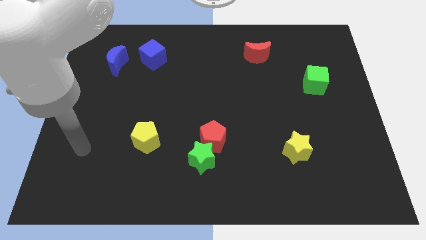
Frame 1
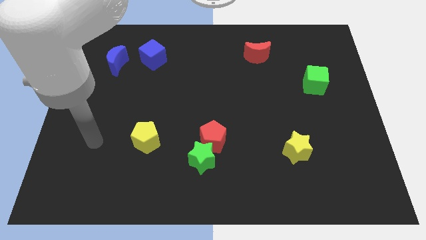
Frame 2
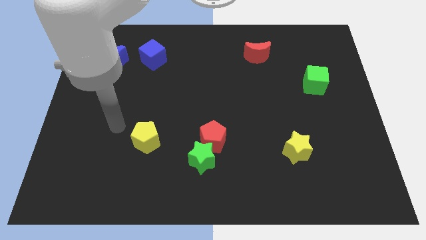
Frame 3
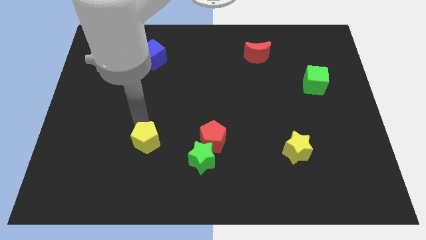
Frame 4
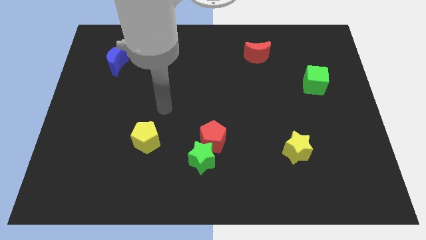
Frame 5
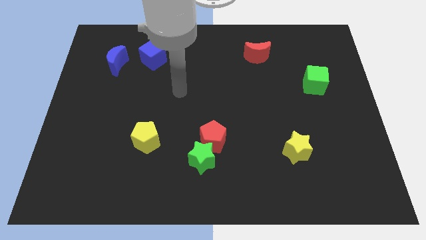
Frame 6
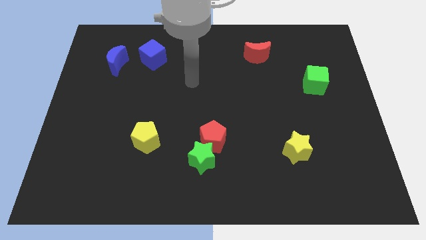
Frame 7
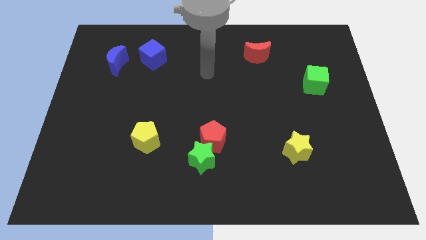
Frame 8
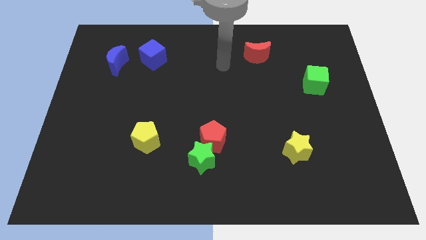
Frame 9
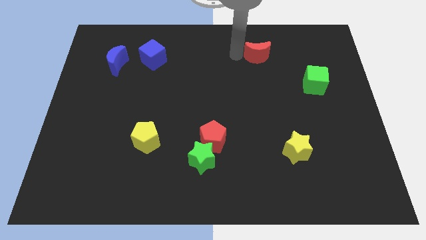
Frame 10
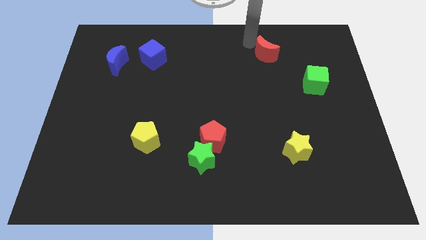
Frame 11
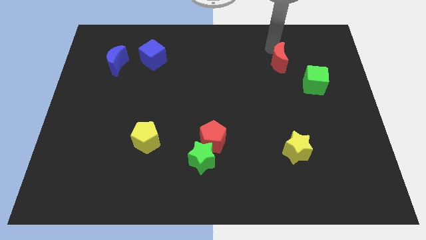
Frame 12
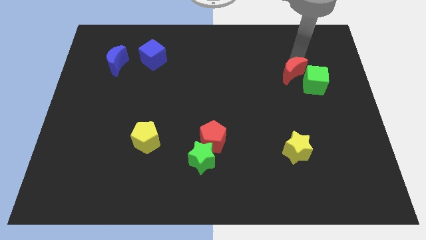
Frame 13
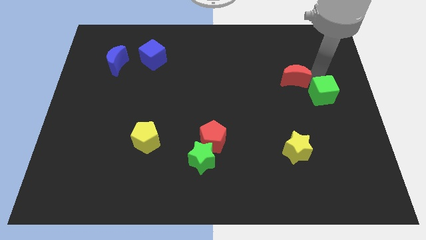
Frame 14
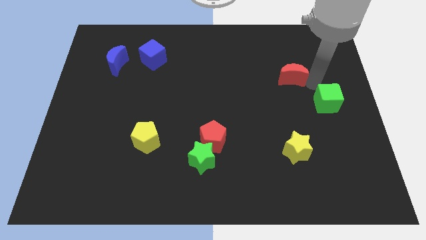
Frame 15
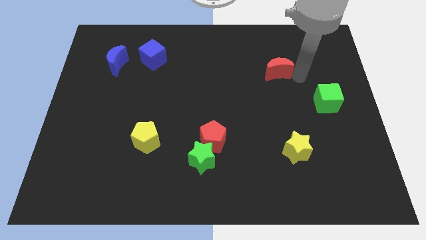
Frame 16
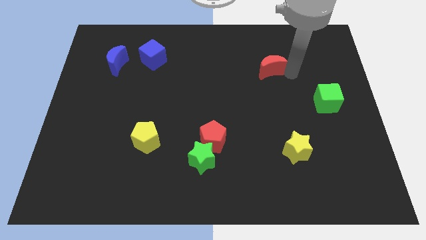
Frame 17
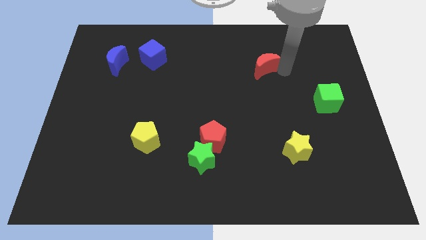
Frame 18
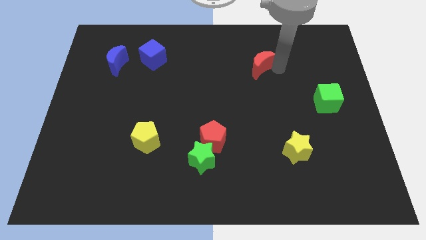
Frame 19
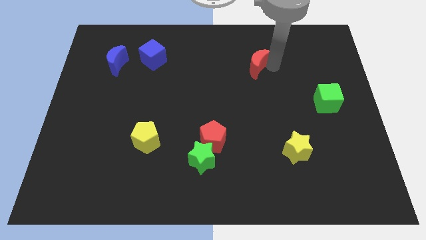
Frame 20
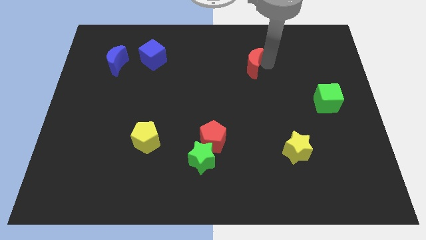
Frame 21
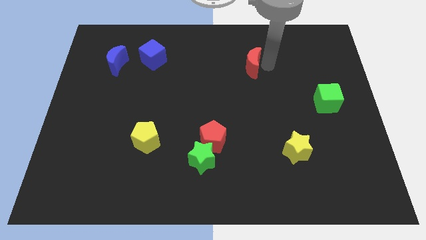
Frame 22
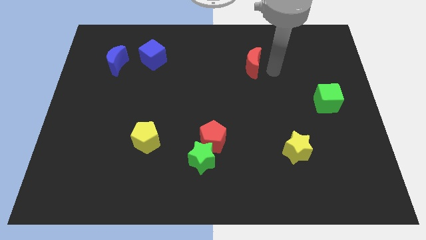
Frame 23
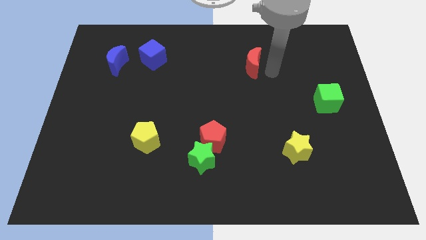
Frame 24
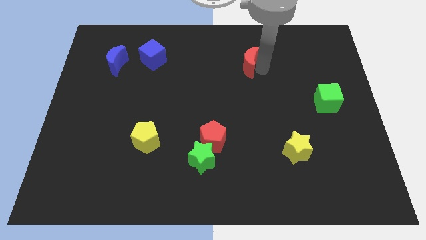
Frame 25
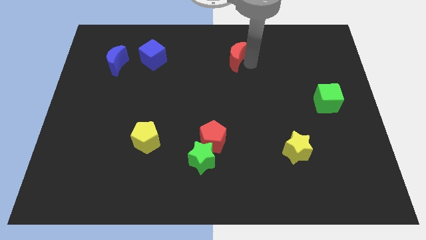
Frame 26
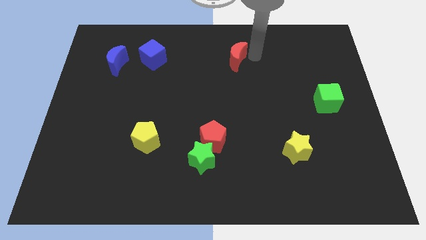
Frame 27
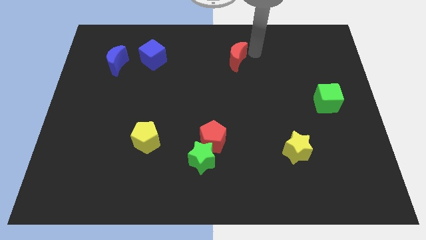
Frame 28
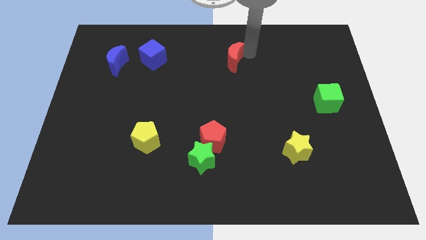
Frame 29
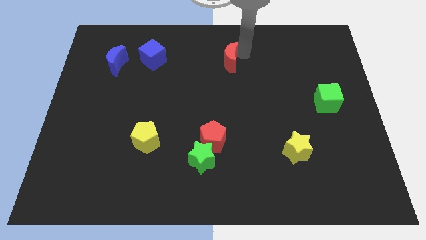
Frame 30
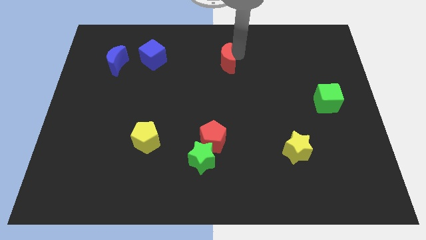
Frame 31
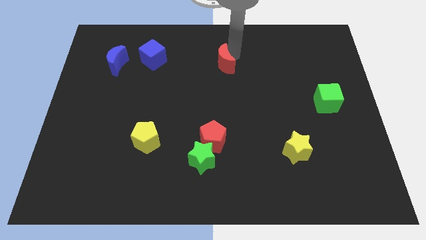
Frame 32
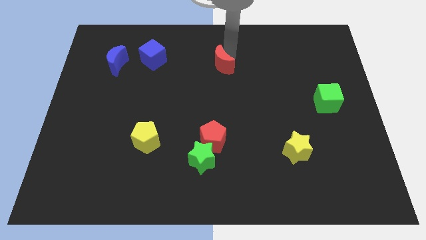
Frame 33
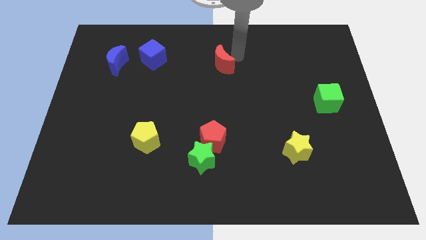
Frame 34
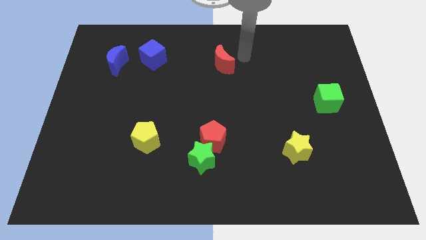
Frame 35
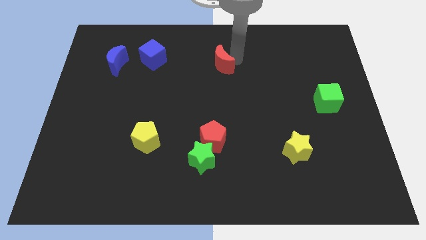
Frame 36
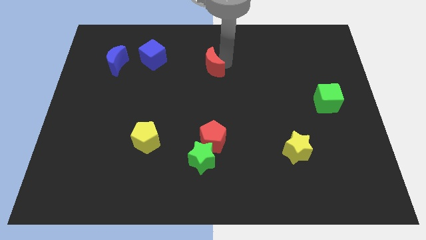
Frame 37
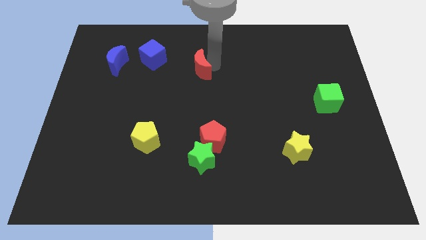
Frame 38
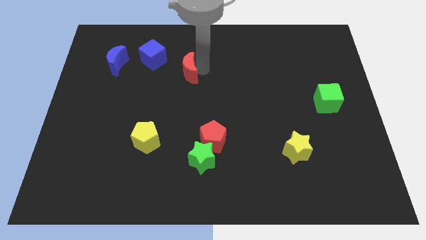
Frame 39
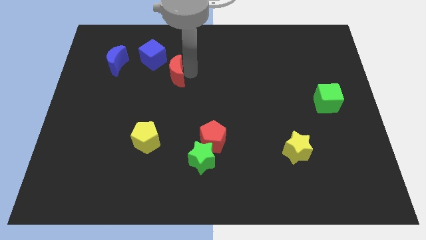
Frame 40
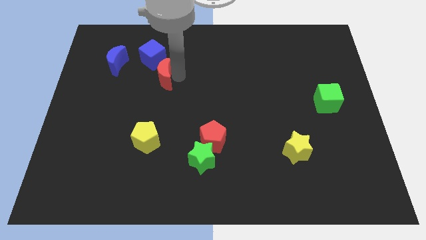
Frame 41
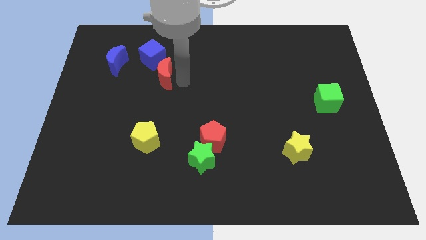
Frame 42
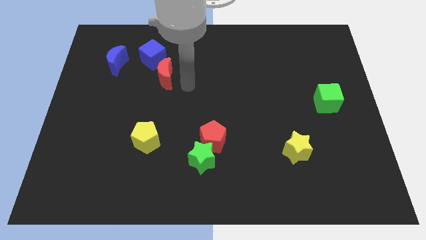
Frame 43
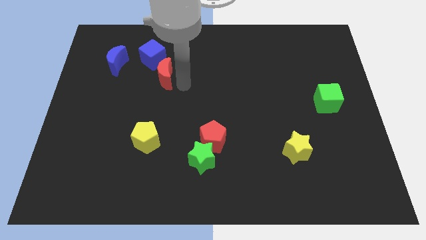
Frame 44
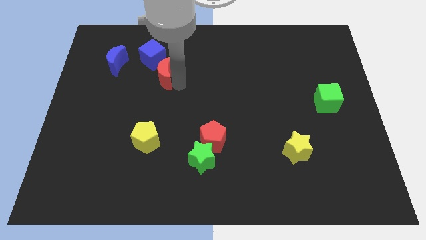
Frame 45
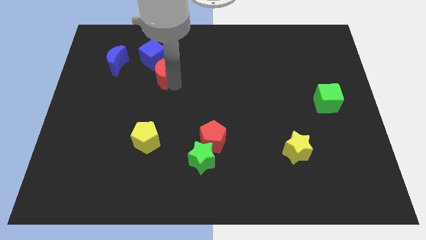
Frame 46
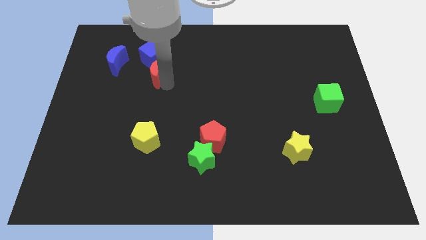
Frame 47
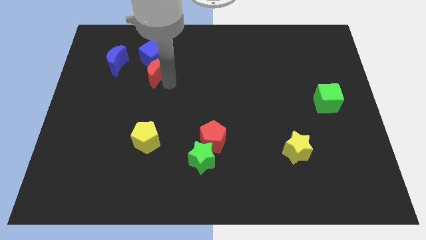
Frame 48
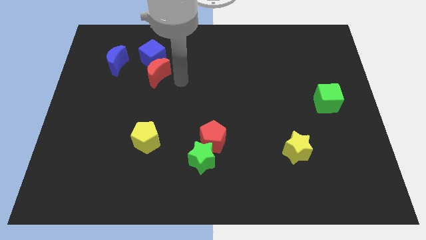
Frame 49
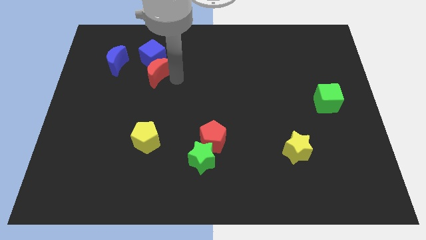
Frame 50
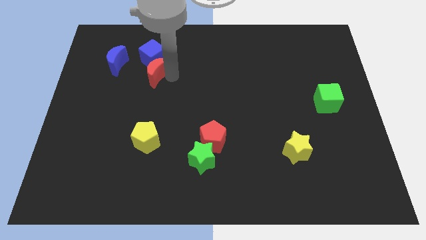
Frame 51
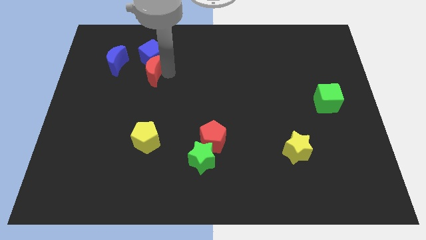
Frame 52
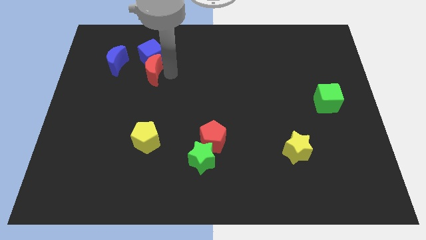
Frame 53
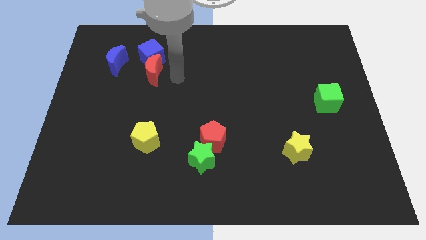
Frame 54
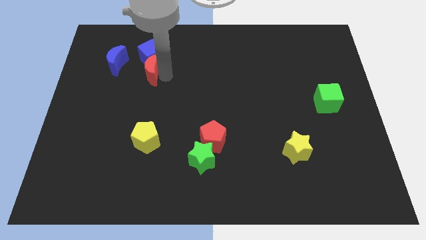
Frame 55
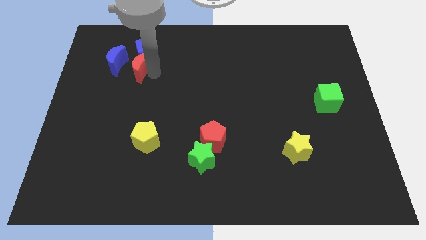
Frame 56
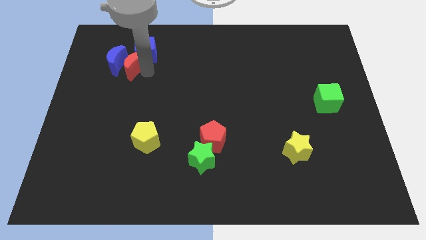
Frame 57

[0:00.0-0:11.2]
push the red moon towards the blue moon

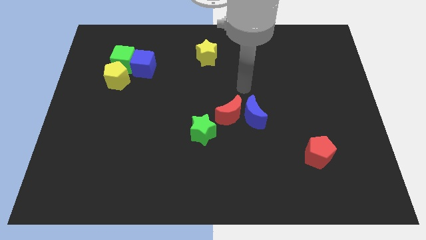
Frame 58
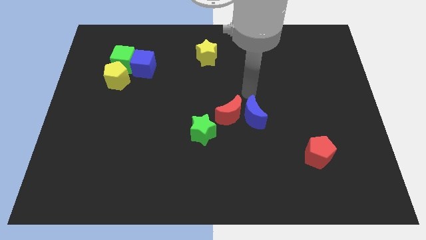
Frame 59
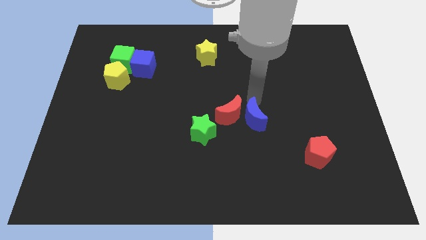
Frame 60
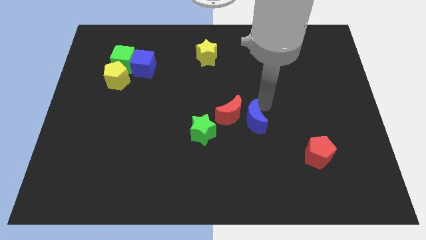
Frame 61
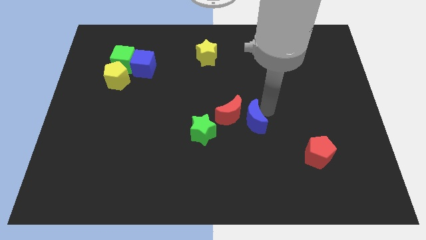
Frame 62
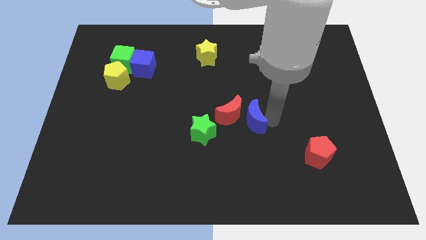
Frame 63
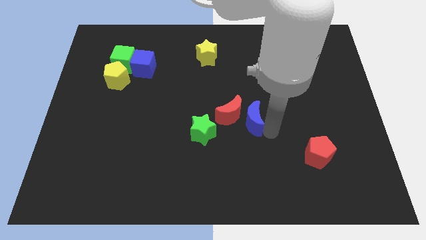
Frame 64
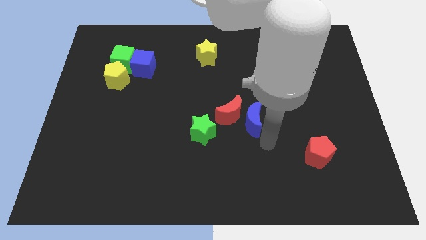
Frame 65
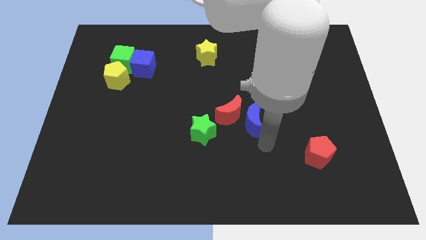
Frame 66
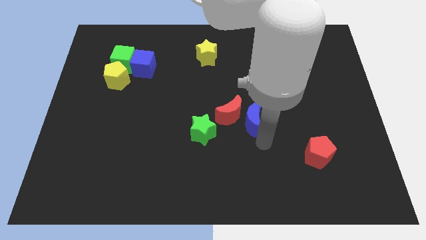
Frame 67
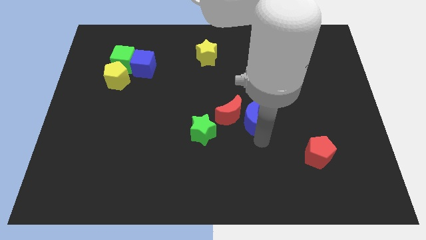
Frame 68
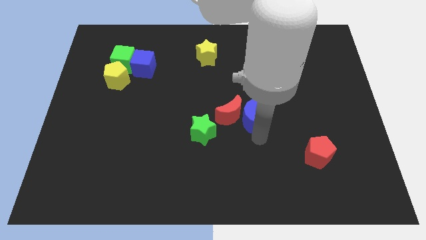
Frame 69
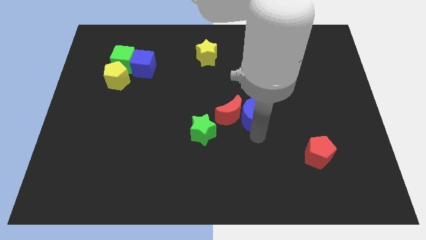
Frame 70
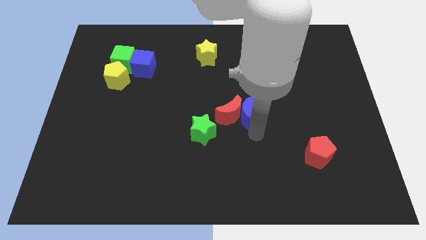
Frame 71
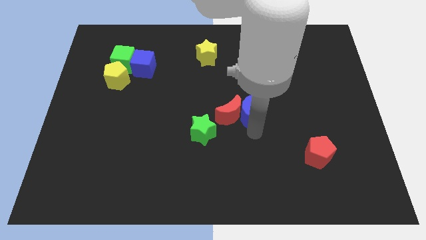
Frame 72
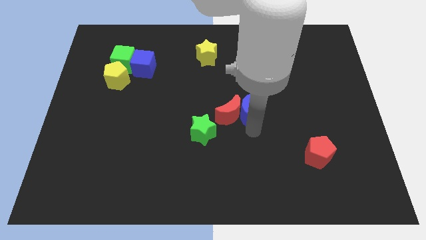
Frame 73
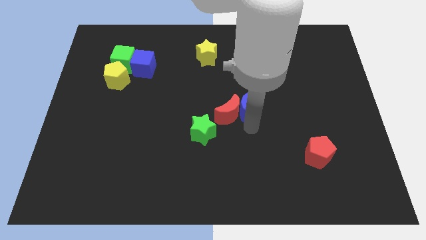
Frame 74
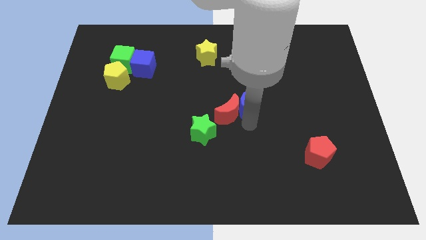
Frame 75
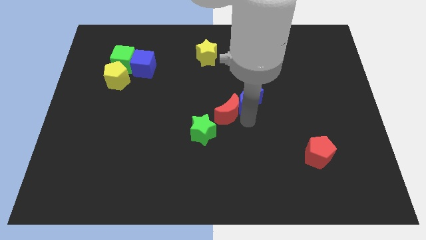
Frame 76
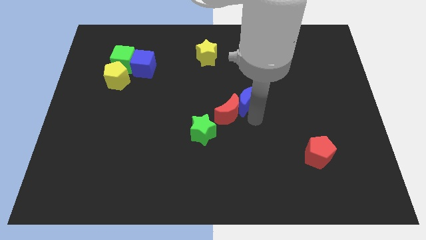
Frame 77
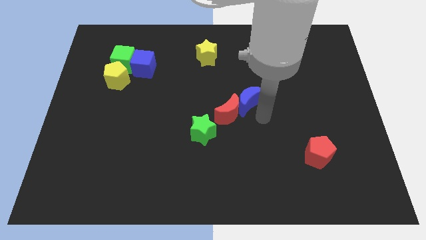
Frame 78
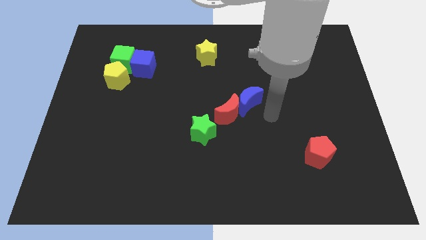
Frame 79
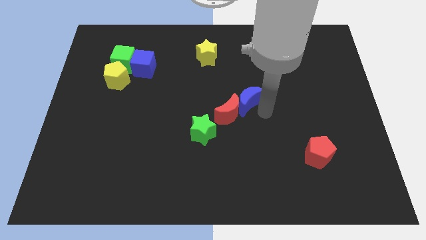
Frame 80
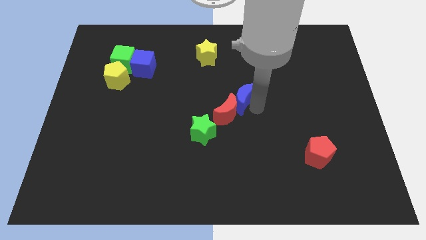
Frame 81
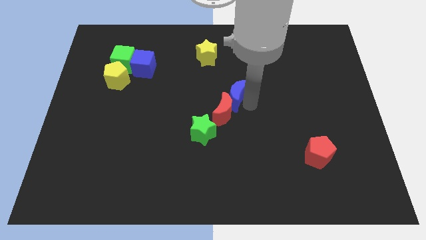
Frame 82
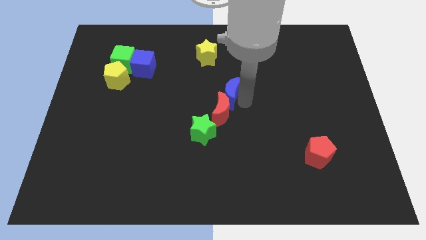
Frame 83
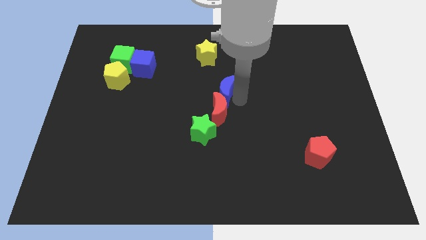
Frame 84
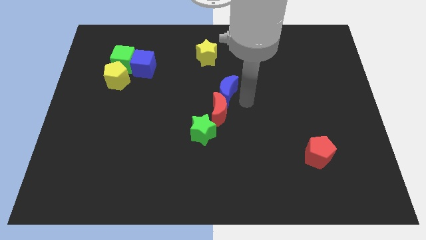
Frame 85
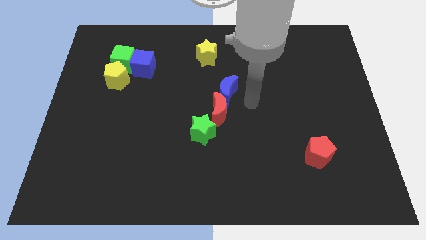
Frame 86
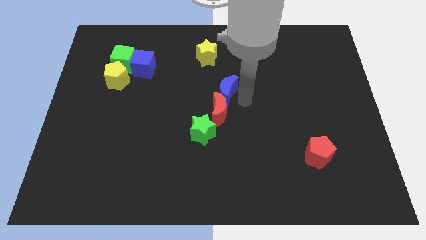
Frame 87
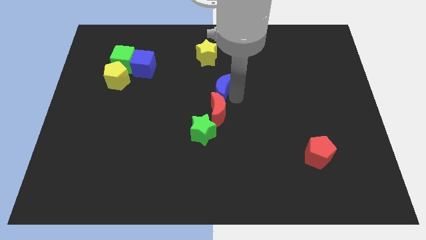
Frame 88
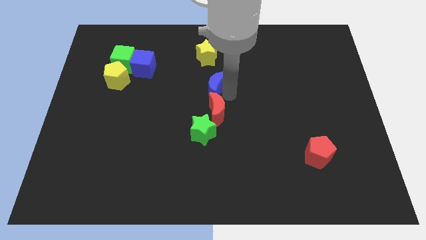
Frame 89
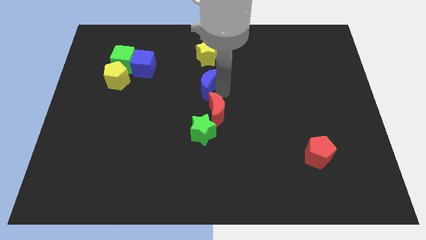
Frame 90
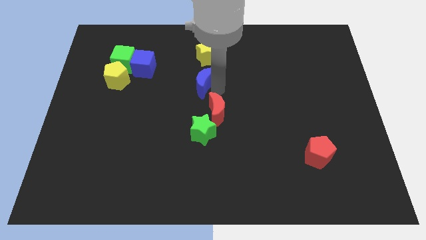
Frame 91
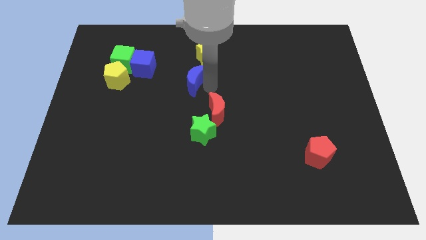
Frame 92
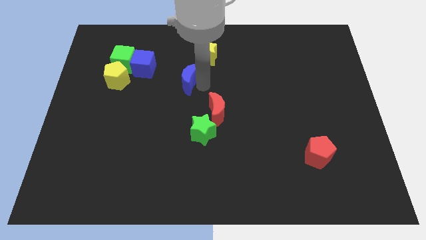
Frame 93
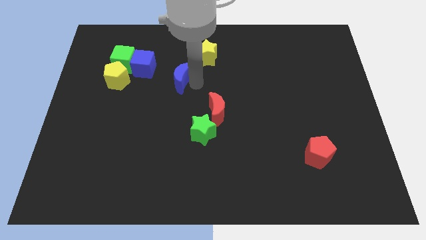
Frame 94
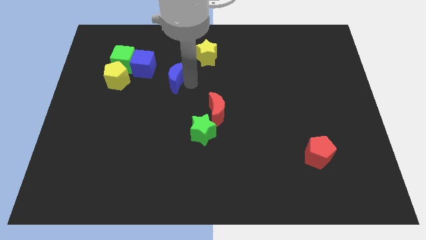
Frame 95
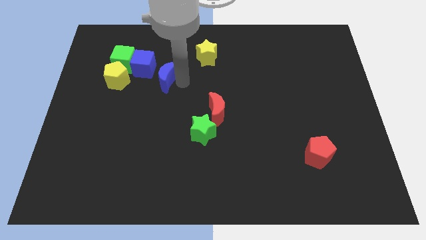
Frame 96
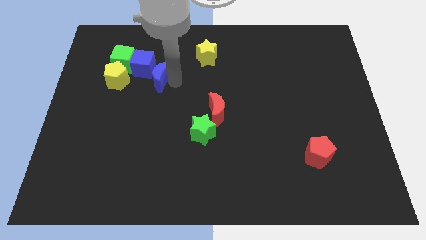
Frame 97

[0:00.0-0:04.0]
put the blue moon close to the blue cube
